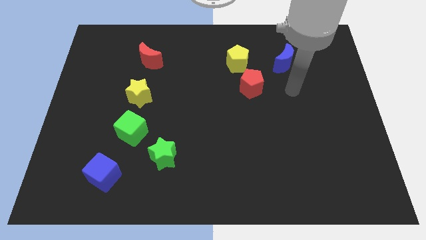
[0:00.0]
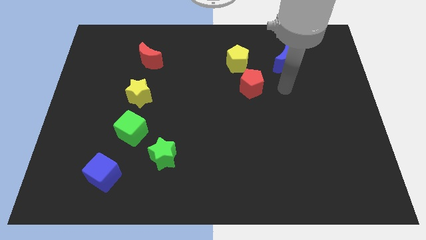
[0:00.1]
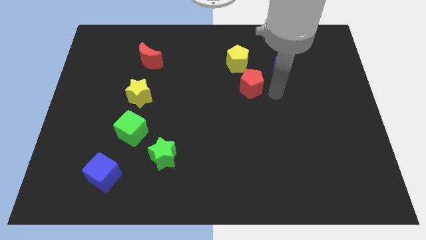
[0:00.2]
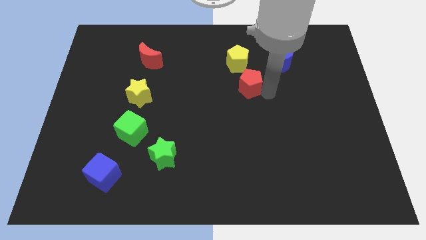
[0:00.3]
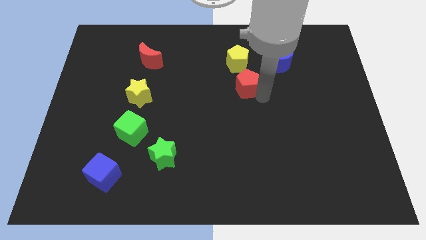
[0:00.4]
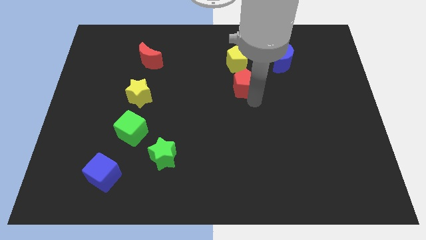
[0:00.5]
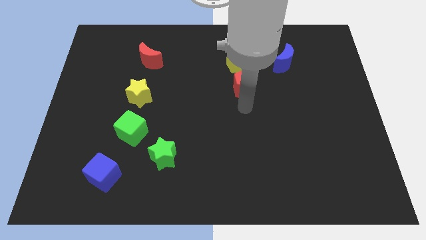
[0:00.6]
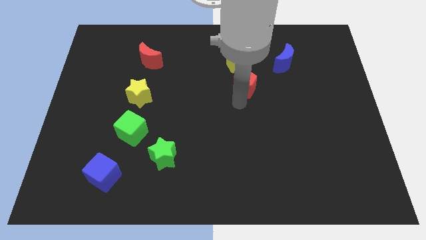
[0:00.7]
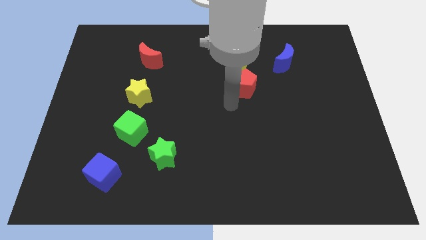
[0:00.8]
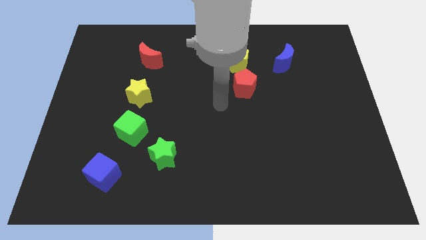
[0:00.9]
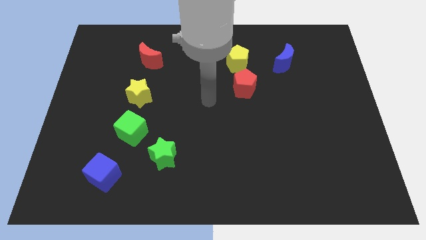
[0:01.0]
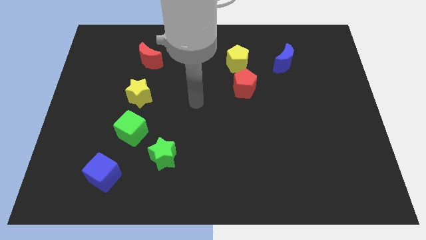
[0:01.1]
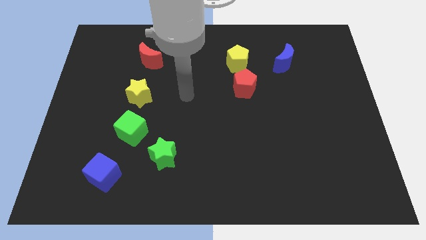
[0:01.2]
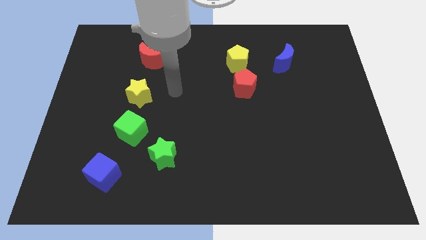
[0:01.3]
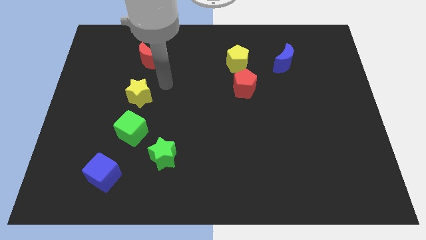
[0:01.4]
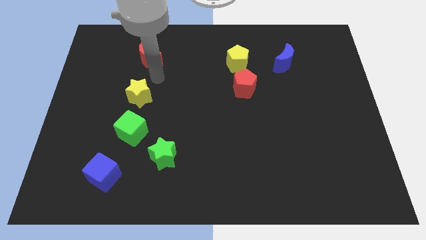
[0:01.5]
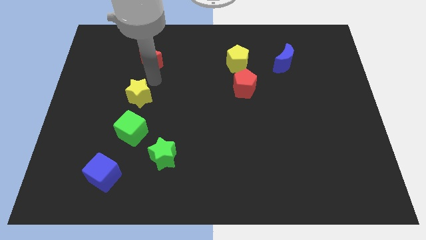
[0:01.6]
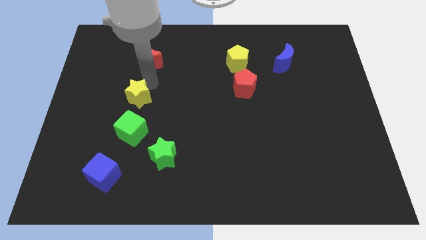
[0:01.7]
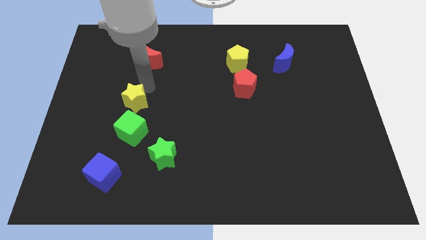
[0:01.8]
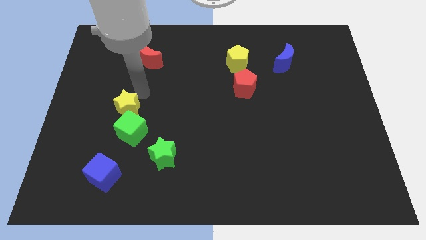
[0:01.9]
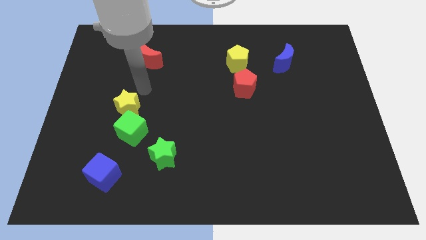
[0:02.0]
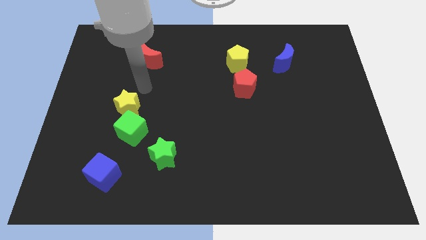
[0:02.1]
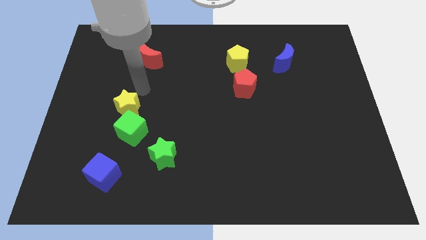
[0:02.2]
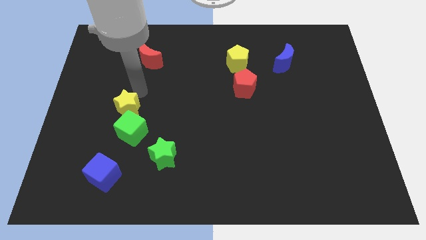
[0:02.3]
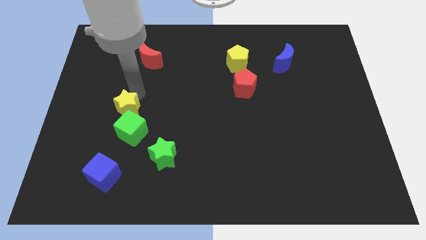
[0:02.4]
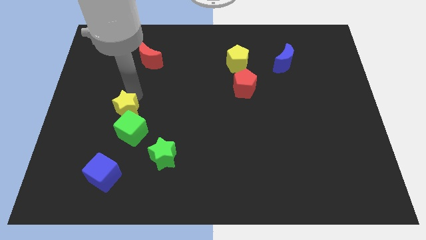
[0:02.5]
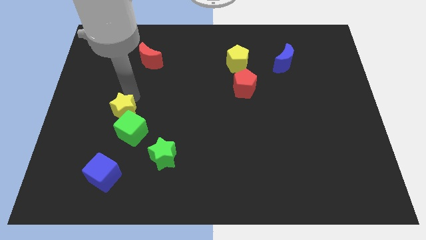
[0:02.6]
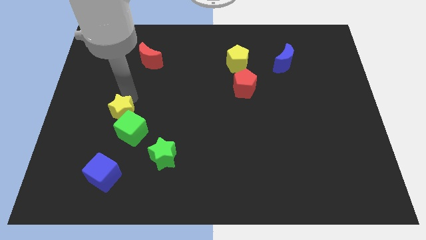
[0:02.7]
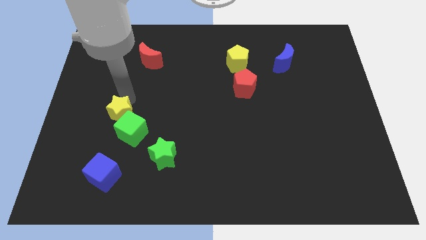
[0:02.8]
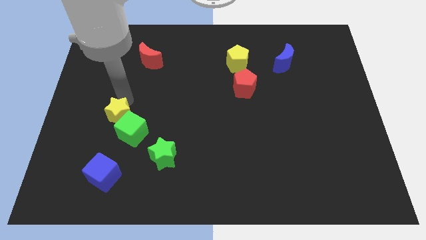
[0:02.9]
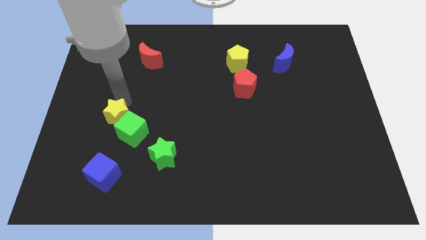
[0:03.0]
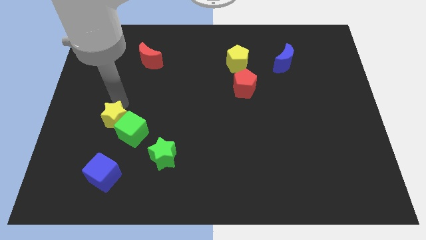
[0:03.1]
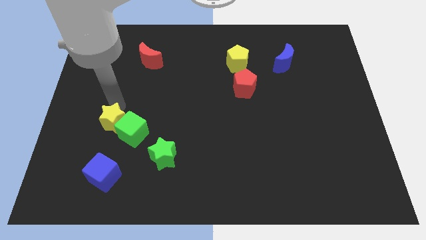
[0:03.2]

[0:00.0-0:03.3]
slightly slide the yellow star down

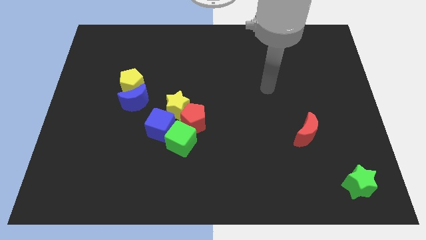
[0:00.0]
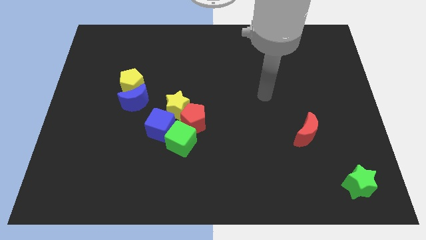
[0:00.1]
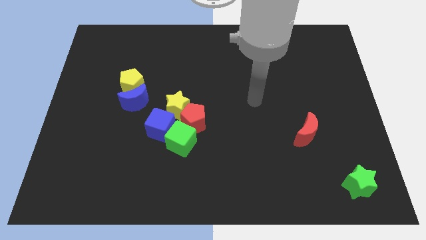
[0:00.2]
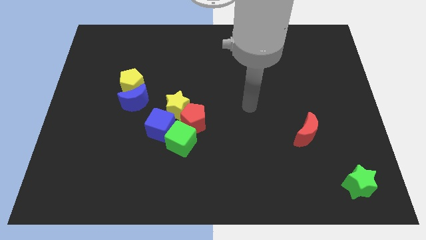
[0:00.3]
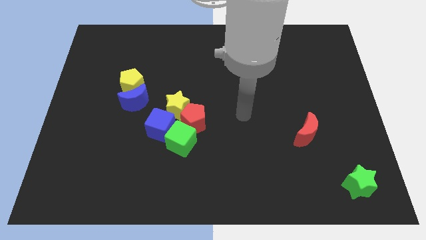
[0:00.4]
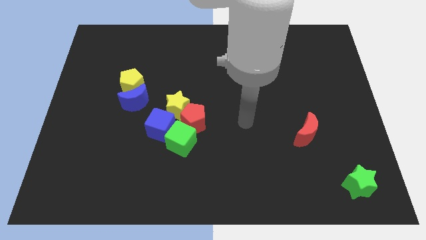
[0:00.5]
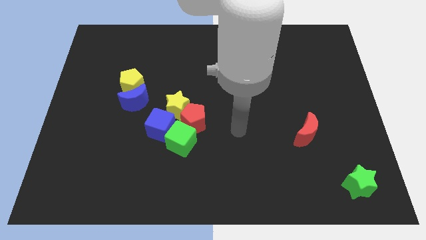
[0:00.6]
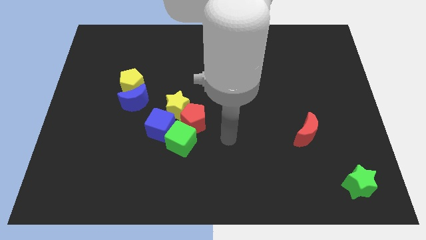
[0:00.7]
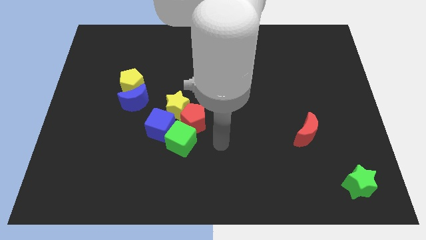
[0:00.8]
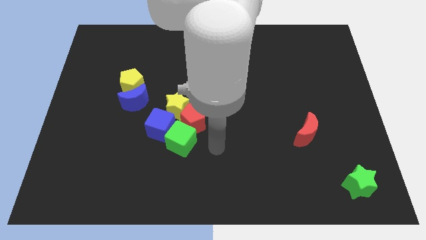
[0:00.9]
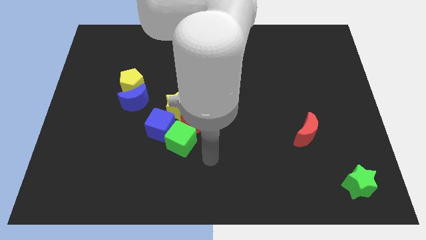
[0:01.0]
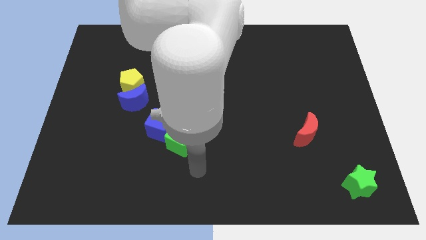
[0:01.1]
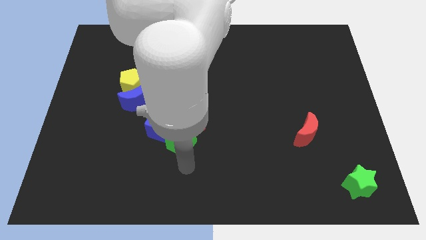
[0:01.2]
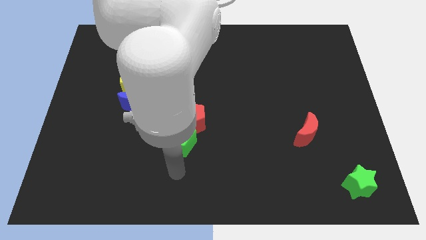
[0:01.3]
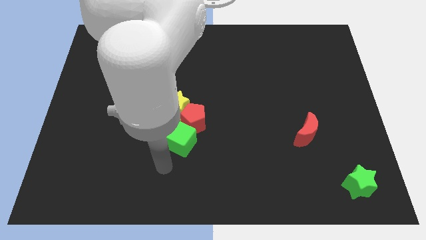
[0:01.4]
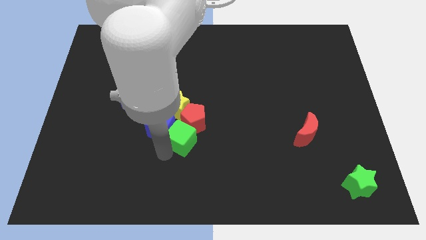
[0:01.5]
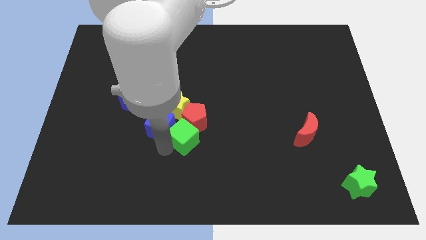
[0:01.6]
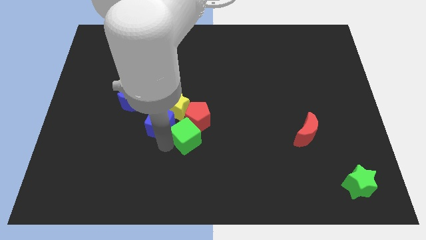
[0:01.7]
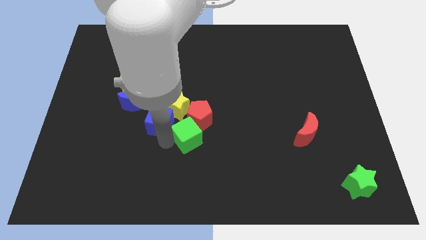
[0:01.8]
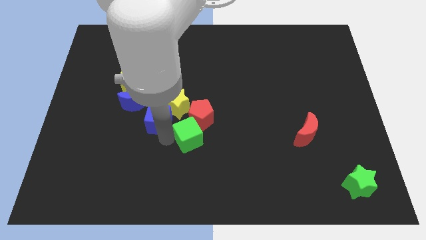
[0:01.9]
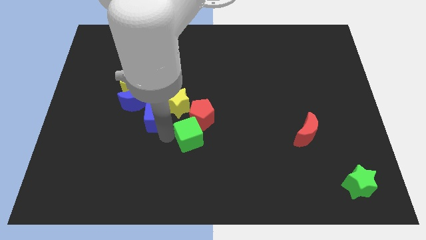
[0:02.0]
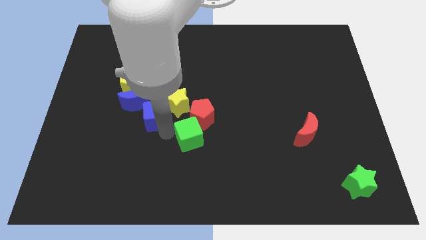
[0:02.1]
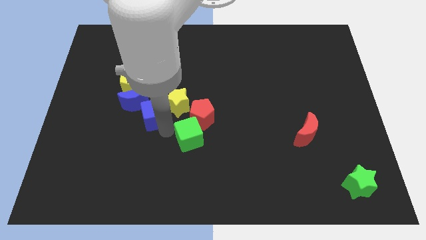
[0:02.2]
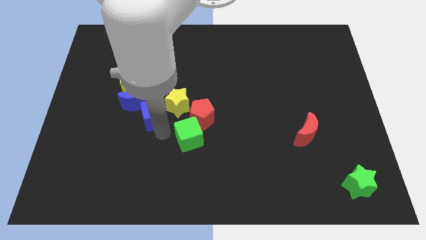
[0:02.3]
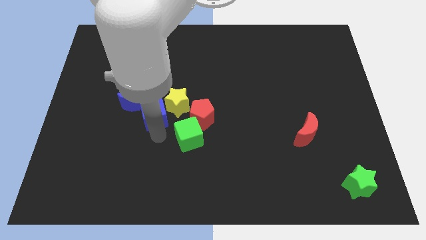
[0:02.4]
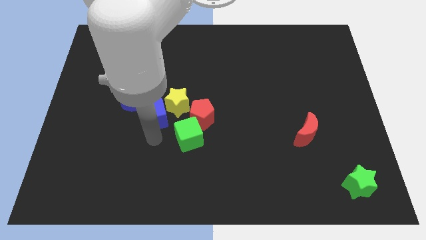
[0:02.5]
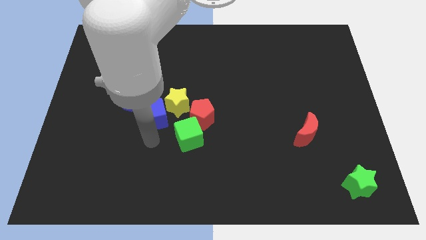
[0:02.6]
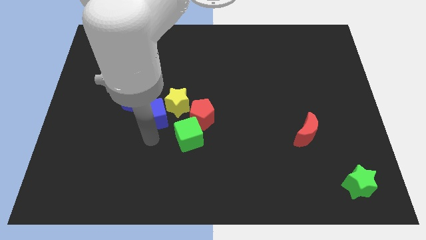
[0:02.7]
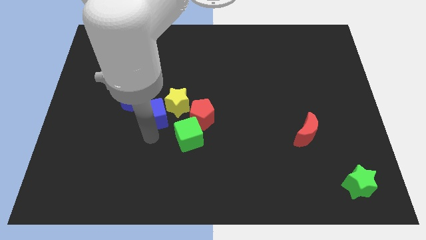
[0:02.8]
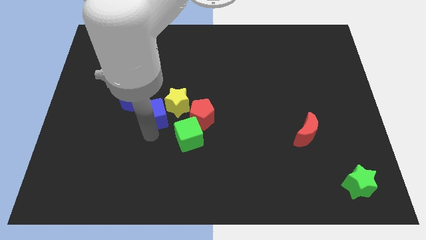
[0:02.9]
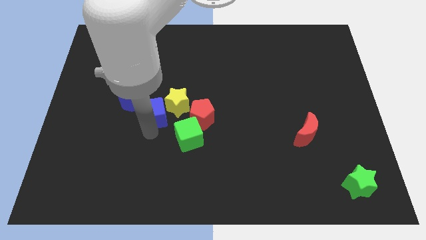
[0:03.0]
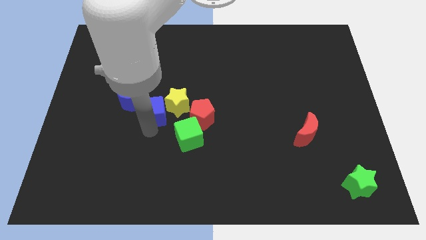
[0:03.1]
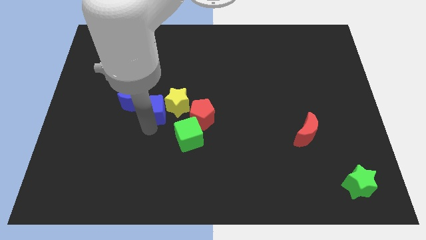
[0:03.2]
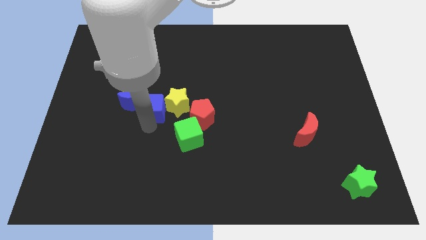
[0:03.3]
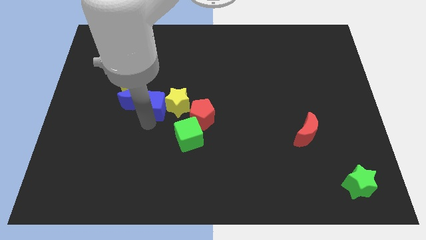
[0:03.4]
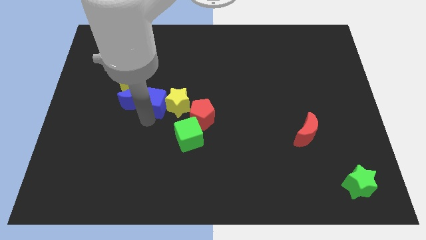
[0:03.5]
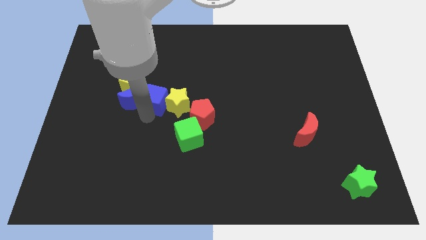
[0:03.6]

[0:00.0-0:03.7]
slide the blue cube a little bit up

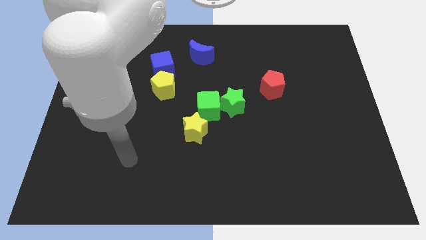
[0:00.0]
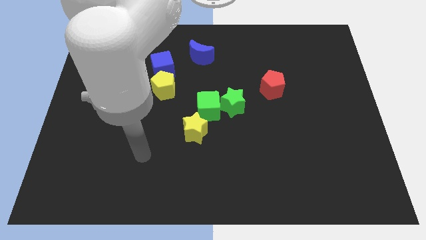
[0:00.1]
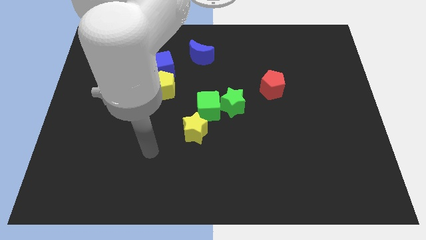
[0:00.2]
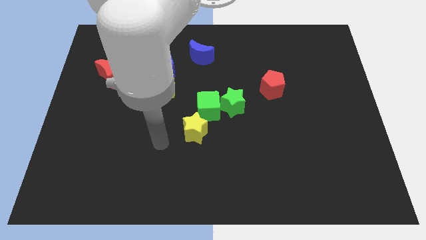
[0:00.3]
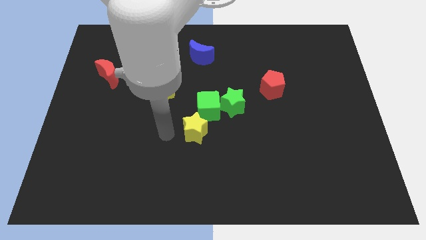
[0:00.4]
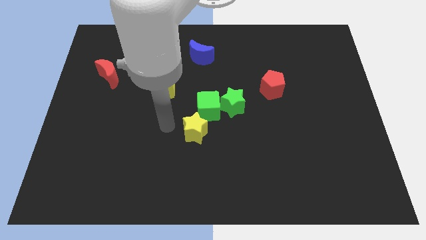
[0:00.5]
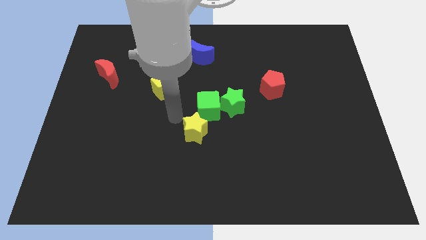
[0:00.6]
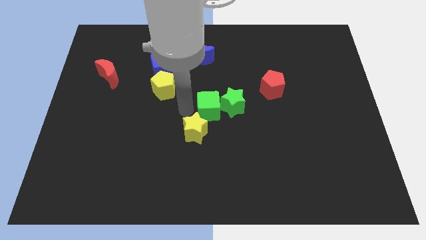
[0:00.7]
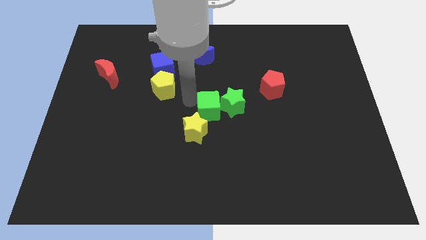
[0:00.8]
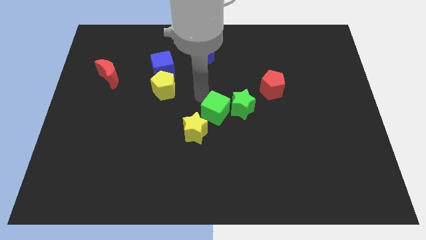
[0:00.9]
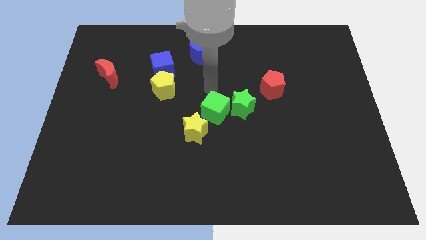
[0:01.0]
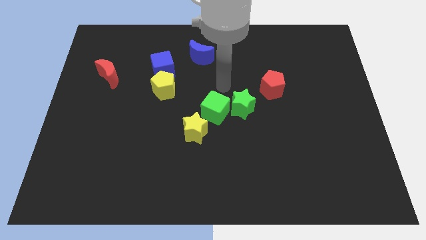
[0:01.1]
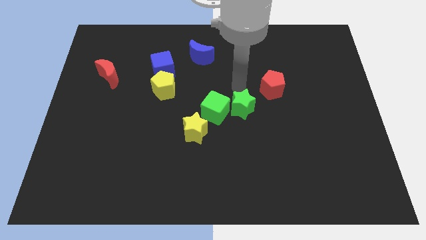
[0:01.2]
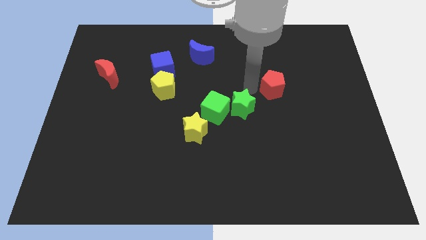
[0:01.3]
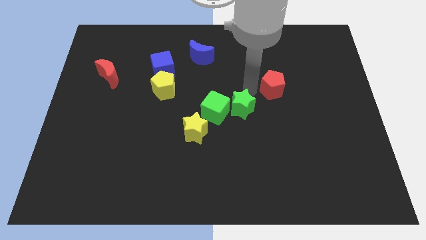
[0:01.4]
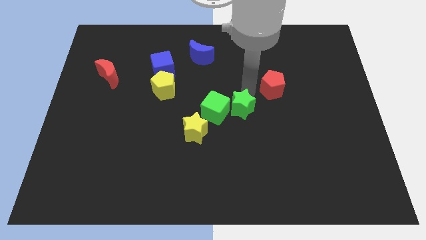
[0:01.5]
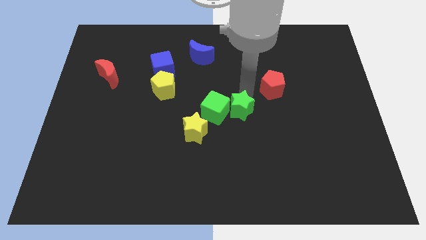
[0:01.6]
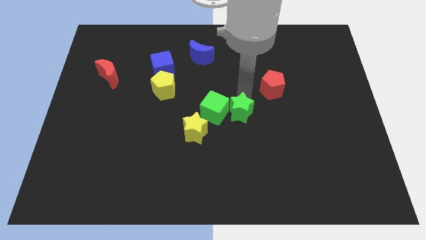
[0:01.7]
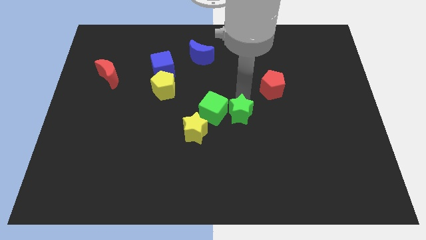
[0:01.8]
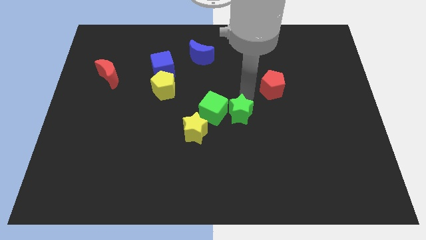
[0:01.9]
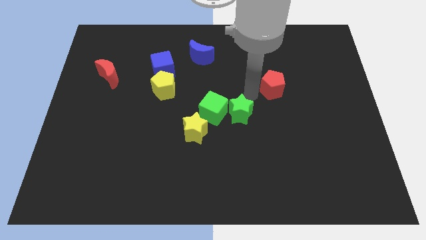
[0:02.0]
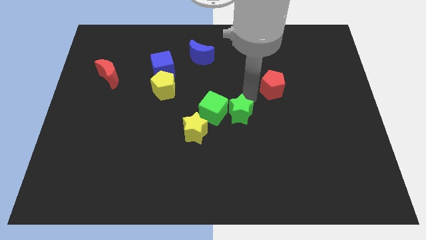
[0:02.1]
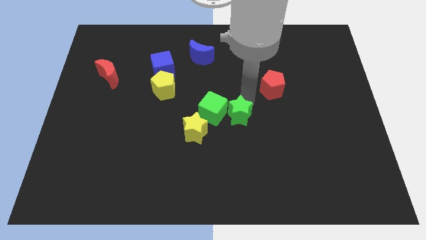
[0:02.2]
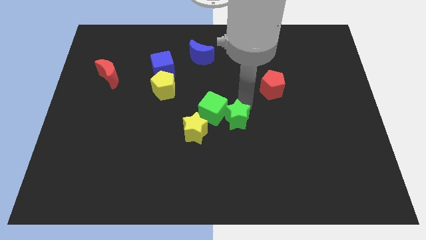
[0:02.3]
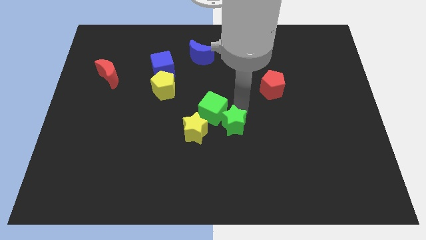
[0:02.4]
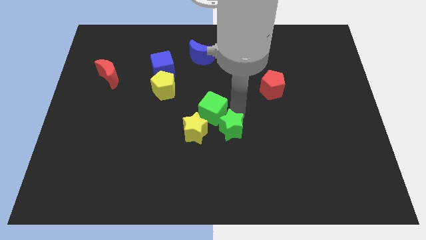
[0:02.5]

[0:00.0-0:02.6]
move the green star downwards a bit
